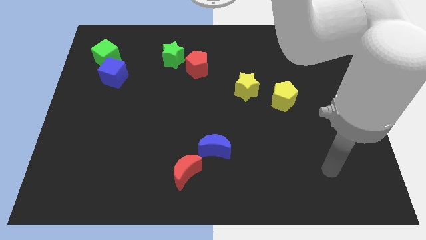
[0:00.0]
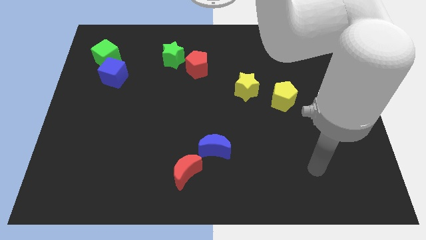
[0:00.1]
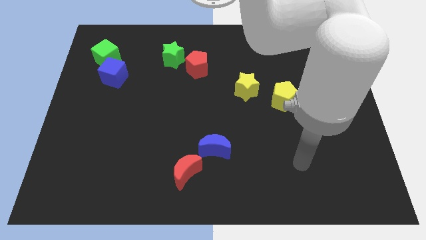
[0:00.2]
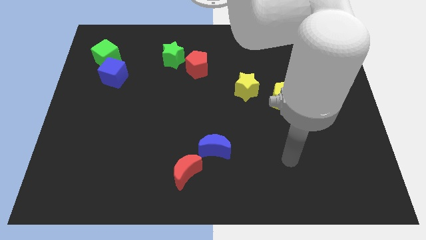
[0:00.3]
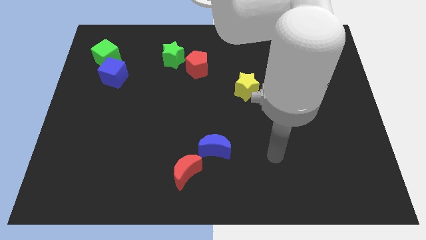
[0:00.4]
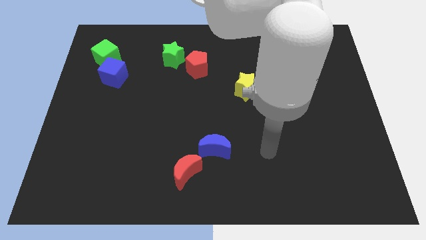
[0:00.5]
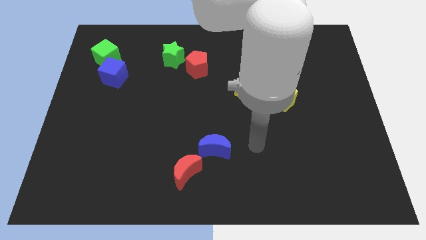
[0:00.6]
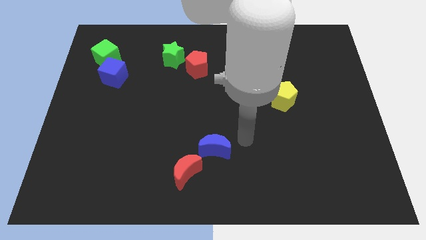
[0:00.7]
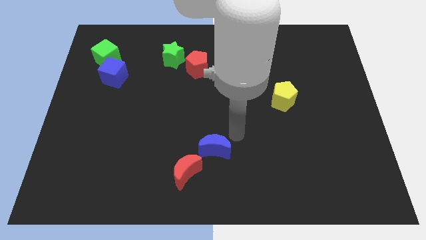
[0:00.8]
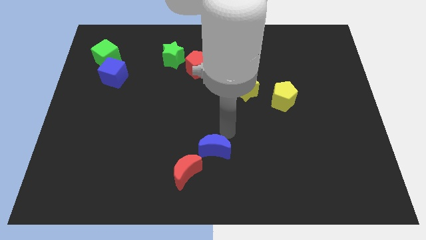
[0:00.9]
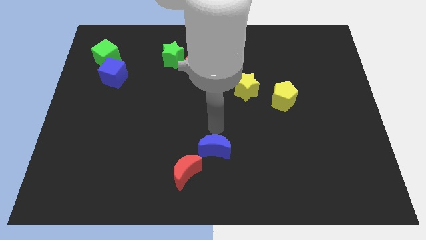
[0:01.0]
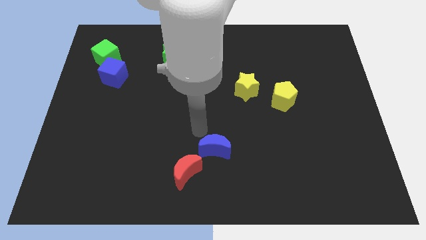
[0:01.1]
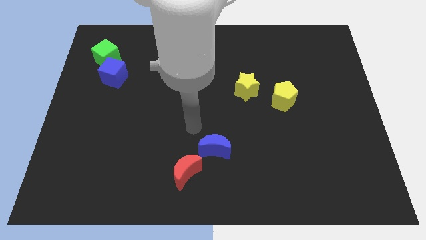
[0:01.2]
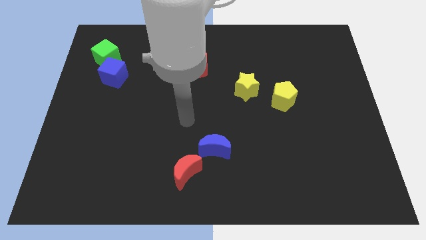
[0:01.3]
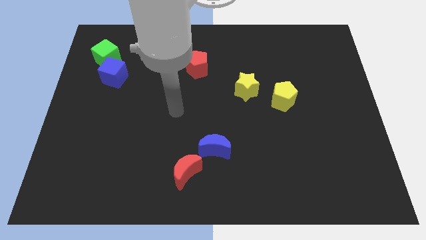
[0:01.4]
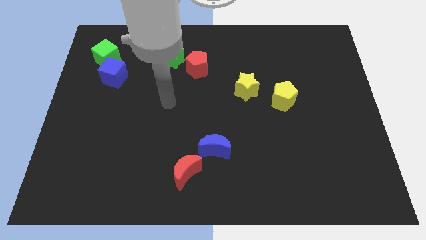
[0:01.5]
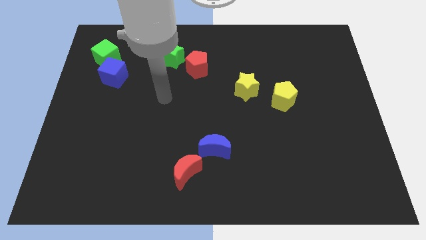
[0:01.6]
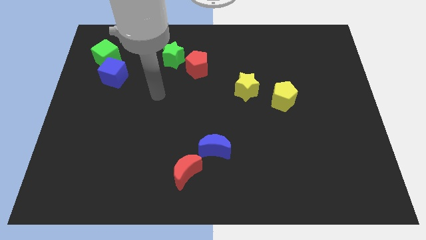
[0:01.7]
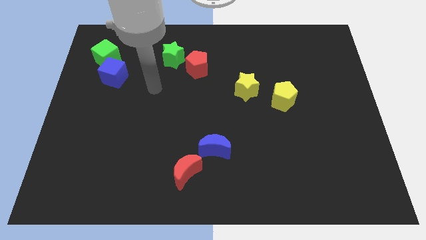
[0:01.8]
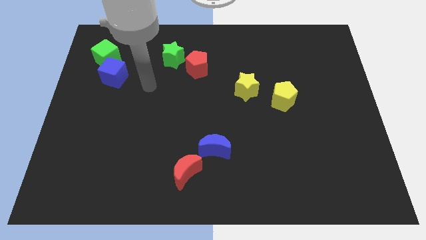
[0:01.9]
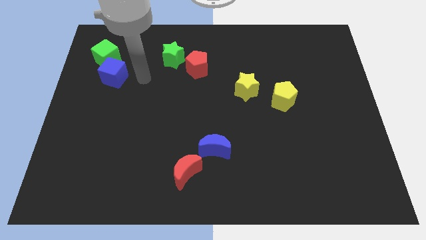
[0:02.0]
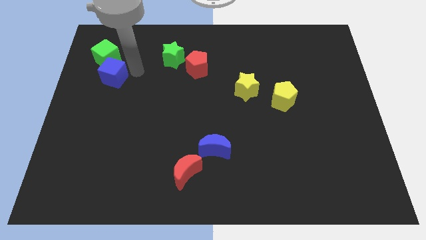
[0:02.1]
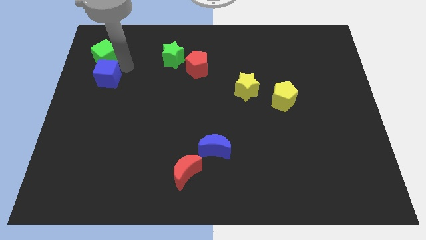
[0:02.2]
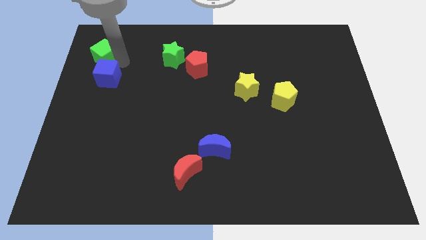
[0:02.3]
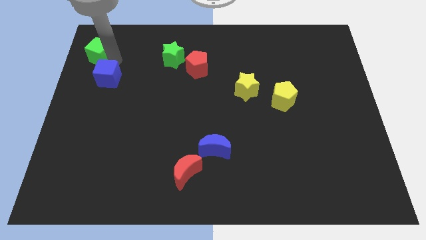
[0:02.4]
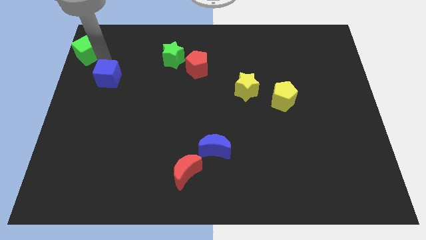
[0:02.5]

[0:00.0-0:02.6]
separate the blue cube from the green cube

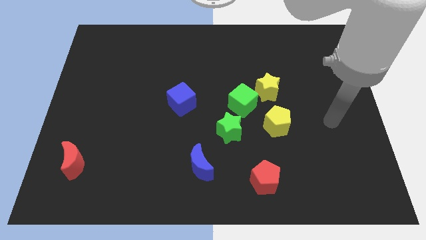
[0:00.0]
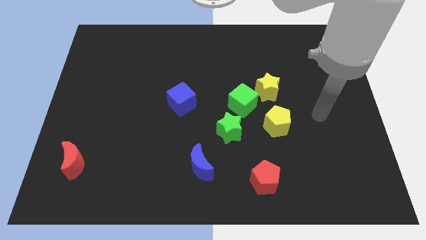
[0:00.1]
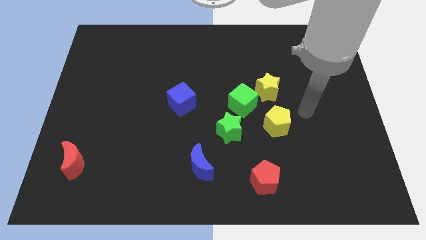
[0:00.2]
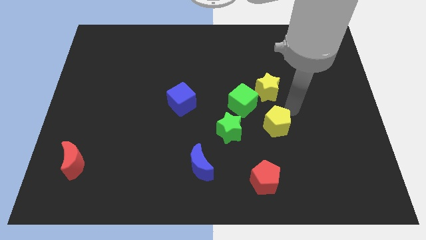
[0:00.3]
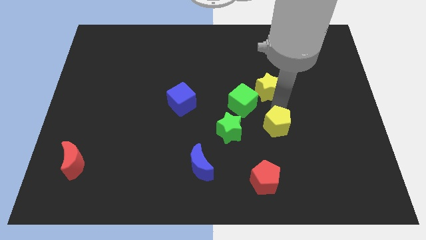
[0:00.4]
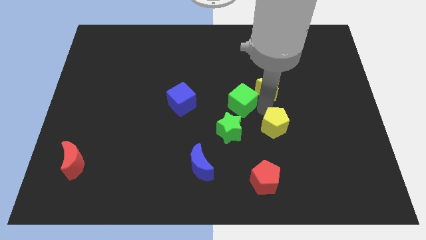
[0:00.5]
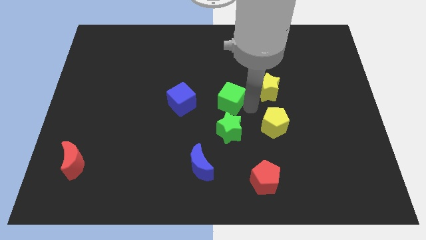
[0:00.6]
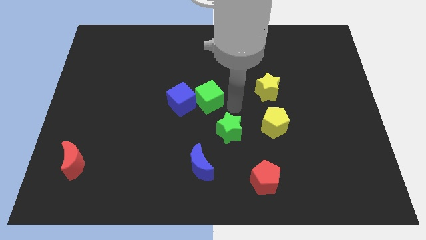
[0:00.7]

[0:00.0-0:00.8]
separate the green star from the green cube

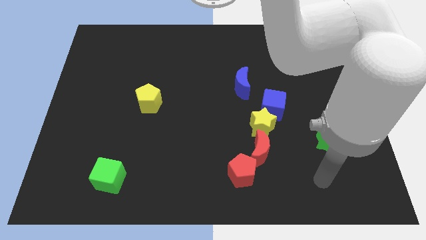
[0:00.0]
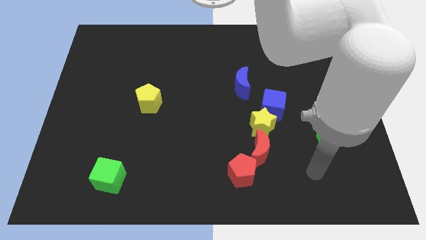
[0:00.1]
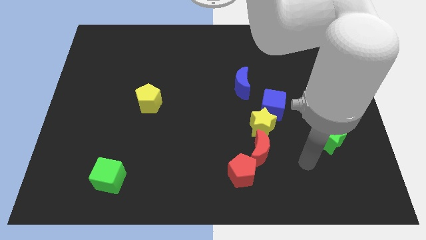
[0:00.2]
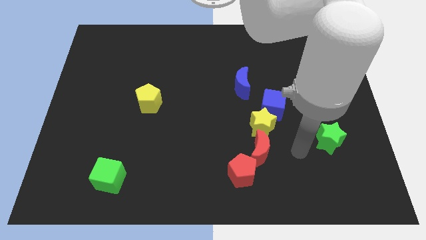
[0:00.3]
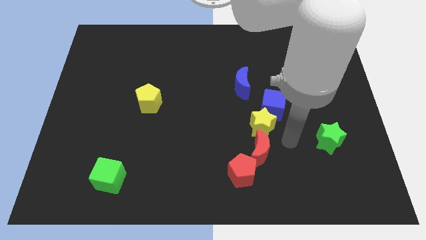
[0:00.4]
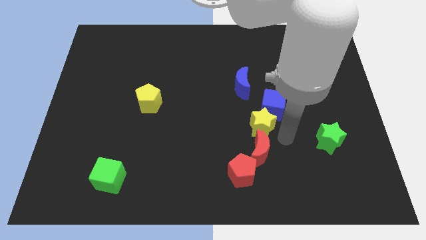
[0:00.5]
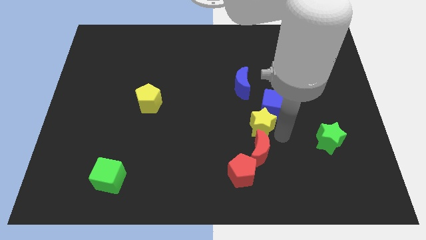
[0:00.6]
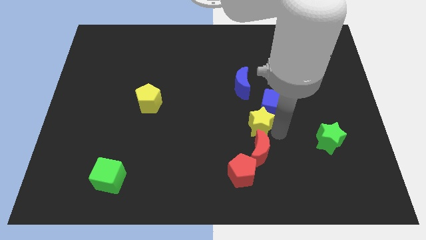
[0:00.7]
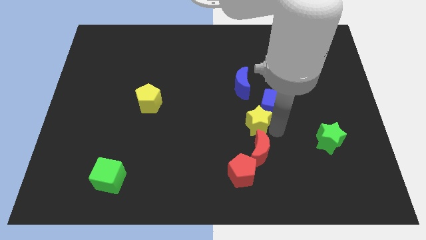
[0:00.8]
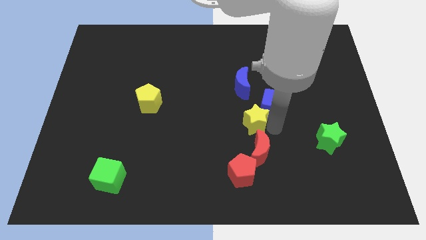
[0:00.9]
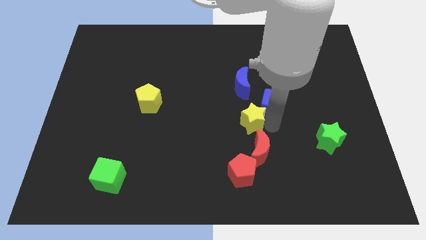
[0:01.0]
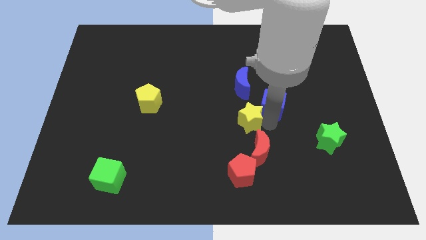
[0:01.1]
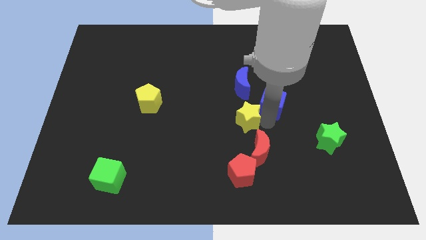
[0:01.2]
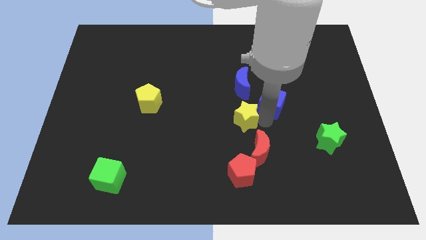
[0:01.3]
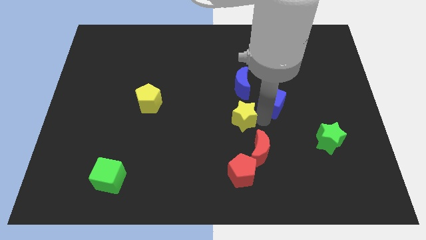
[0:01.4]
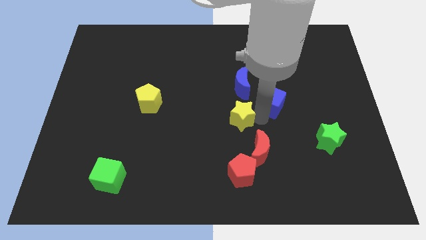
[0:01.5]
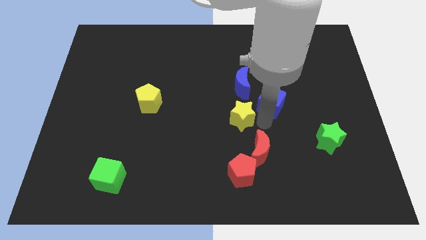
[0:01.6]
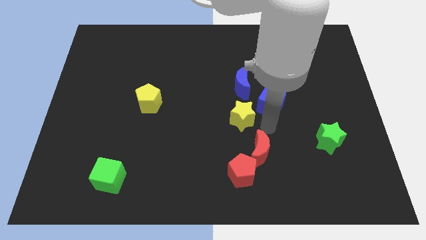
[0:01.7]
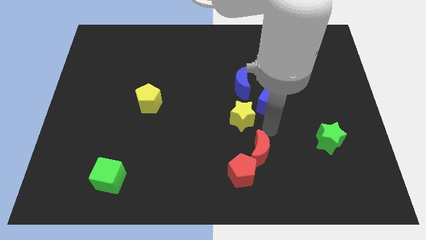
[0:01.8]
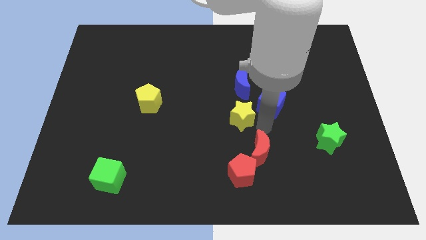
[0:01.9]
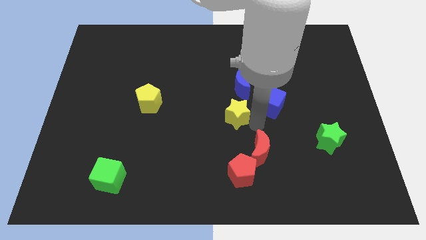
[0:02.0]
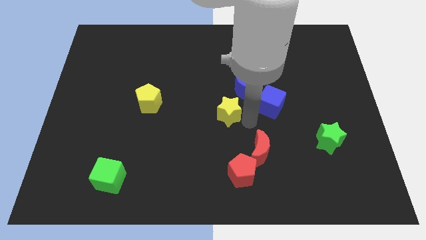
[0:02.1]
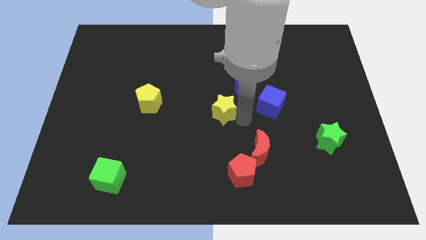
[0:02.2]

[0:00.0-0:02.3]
move the yellow star away from the blue cube and red moon

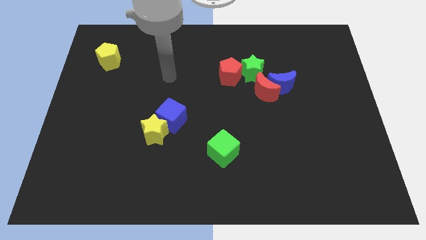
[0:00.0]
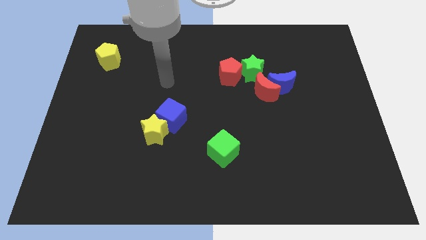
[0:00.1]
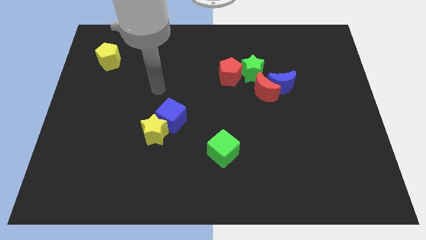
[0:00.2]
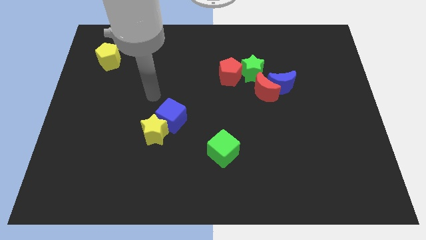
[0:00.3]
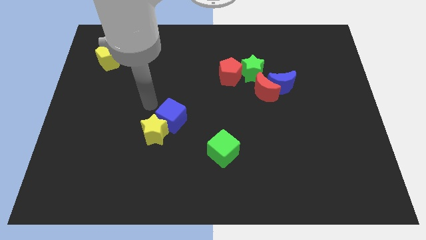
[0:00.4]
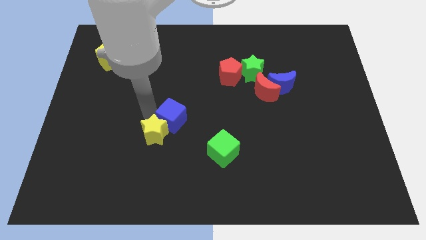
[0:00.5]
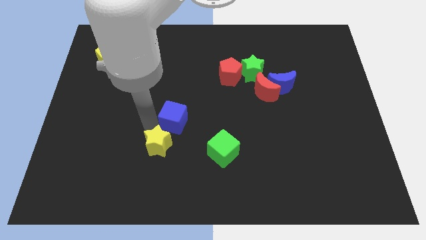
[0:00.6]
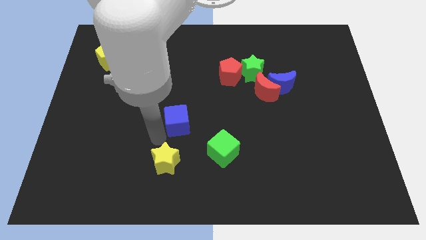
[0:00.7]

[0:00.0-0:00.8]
pull the blue cube apart from the yellow star

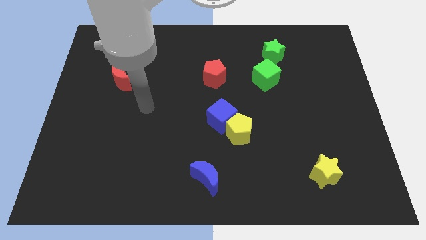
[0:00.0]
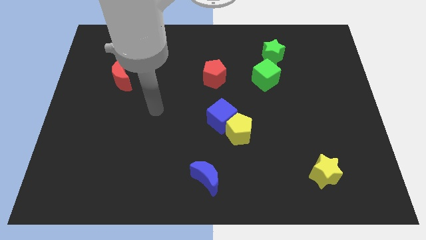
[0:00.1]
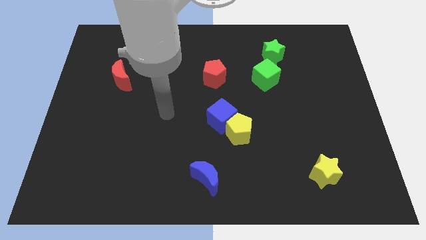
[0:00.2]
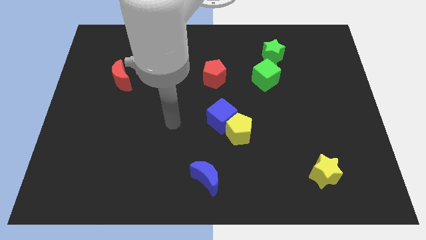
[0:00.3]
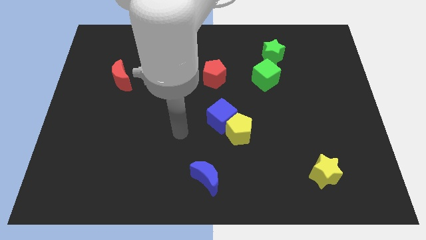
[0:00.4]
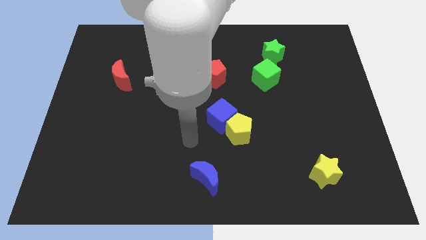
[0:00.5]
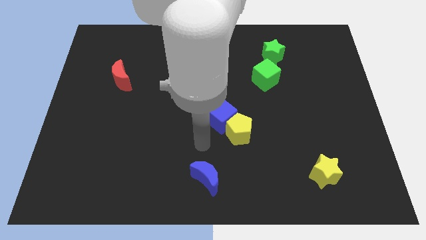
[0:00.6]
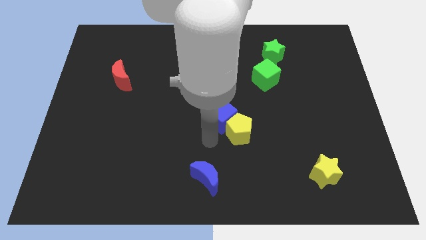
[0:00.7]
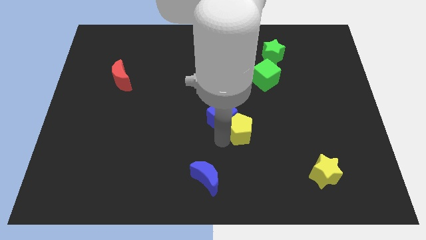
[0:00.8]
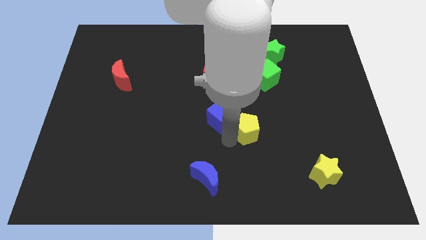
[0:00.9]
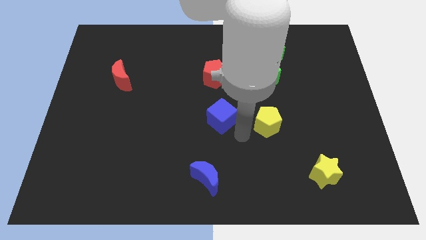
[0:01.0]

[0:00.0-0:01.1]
move the blue cube away from the yellow pentagon

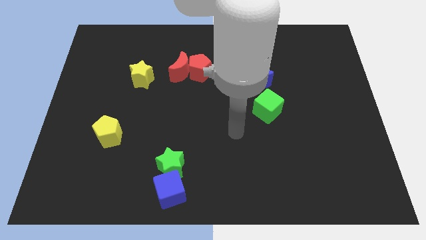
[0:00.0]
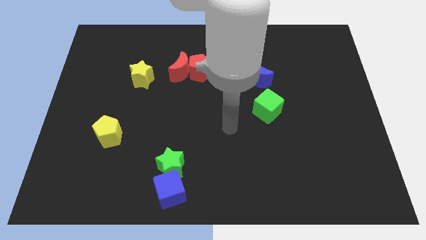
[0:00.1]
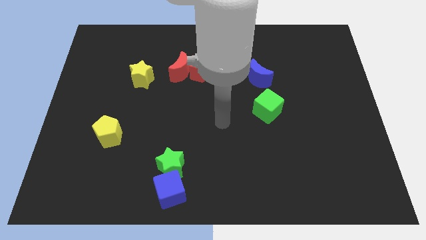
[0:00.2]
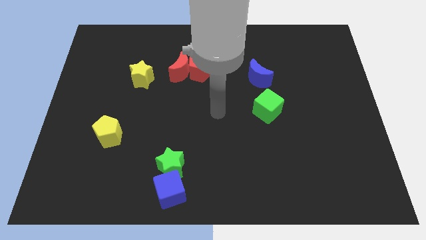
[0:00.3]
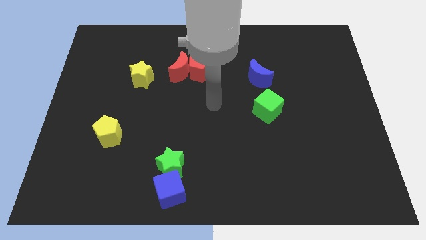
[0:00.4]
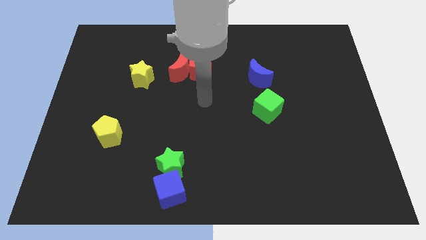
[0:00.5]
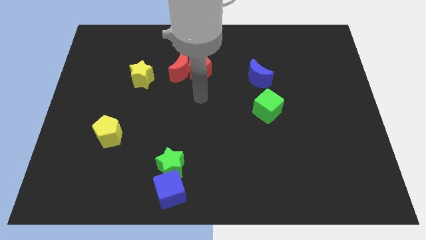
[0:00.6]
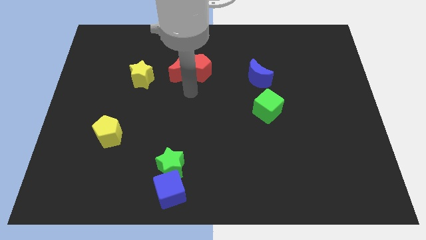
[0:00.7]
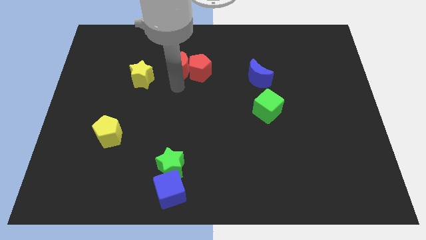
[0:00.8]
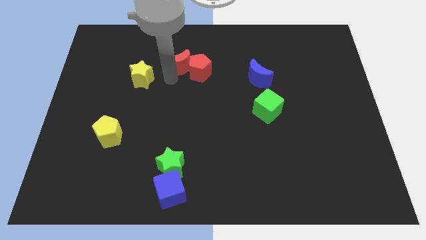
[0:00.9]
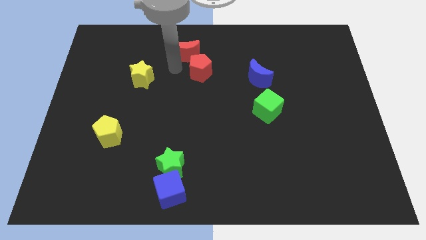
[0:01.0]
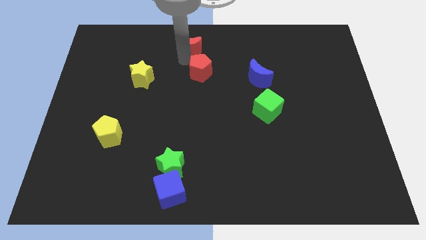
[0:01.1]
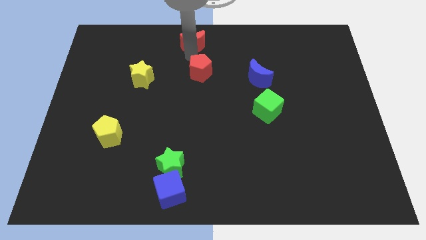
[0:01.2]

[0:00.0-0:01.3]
pull the red pentagon apart from the red moon

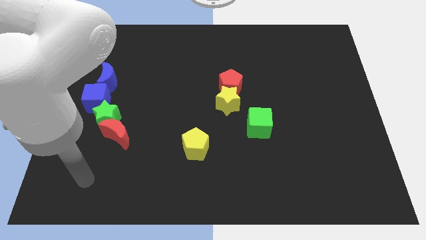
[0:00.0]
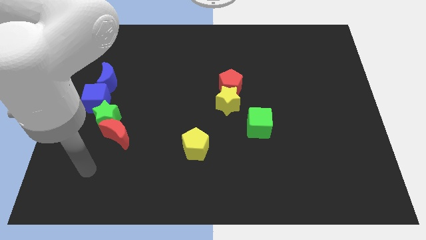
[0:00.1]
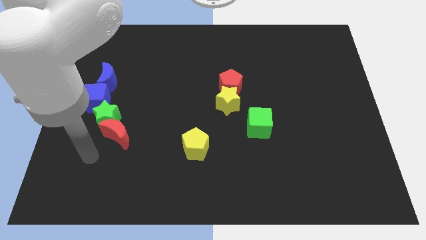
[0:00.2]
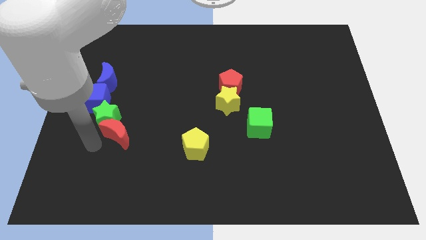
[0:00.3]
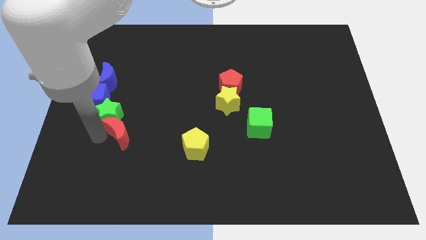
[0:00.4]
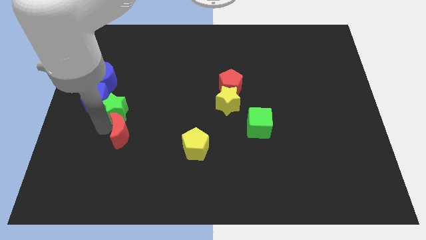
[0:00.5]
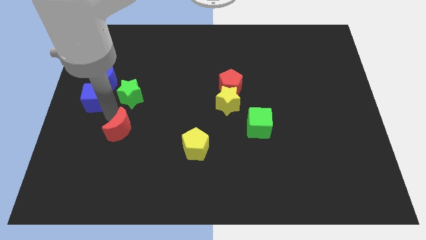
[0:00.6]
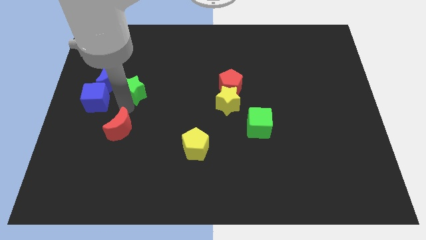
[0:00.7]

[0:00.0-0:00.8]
separate the red moon from the green star
